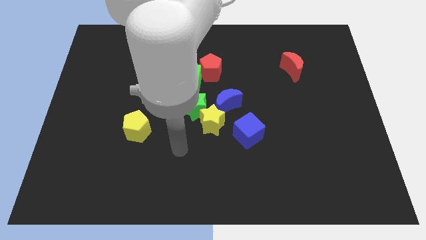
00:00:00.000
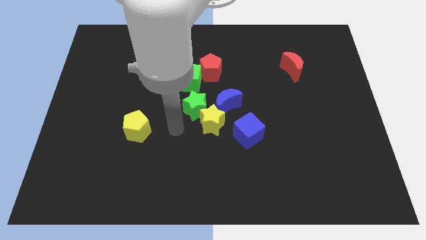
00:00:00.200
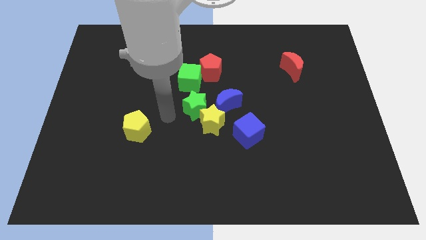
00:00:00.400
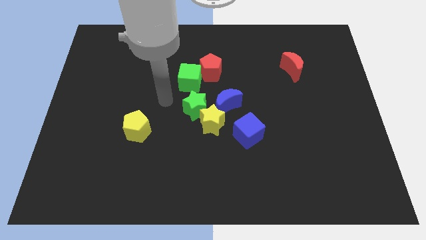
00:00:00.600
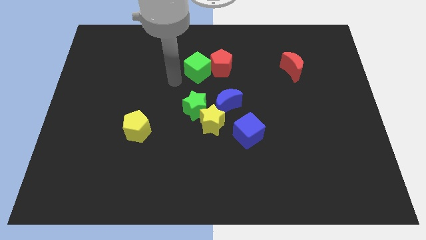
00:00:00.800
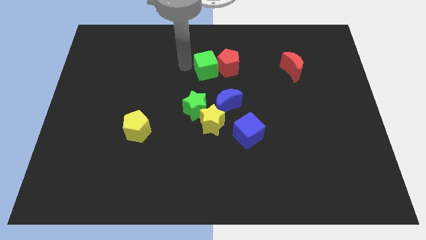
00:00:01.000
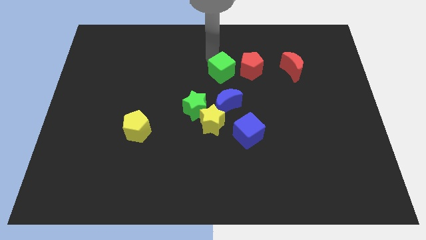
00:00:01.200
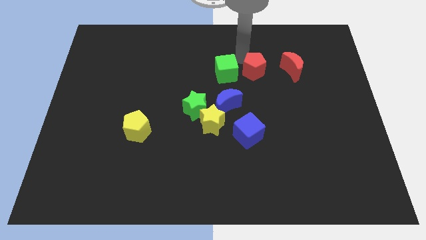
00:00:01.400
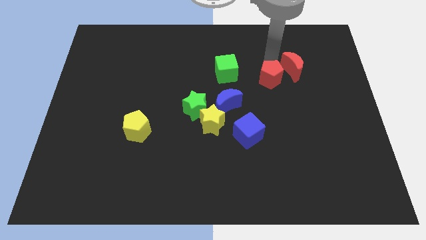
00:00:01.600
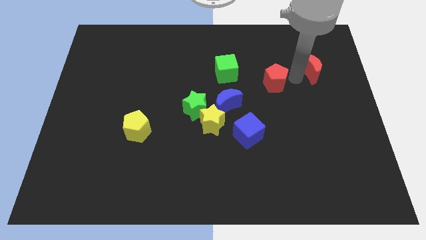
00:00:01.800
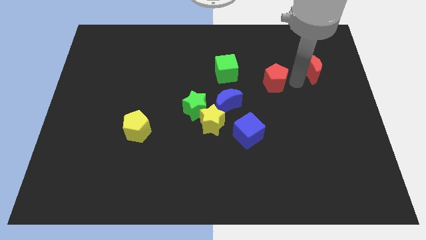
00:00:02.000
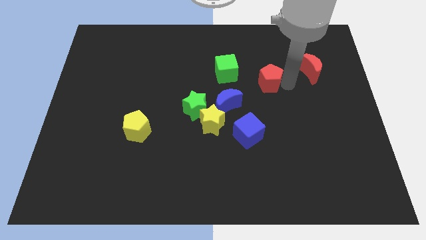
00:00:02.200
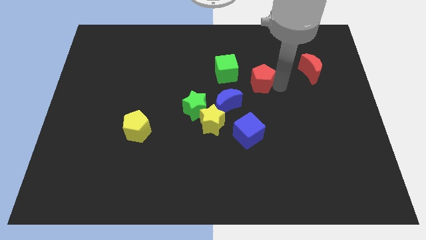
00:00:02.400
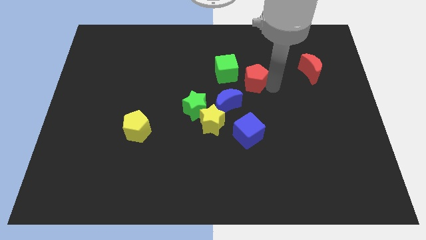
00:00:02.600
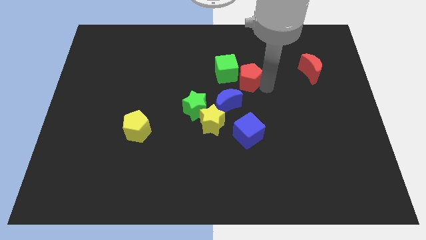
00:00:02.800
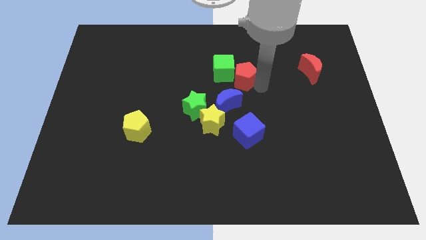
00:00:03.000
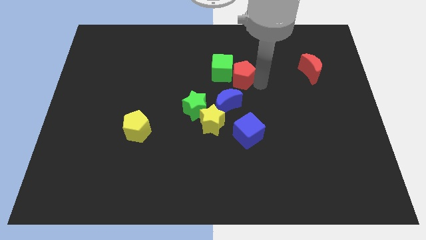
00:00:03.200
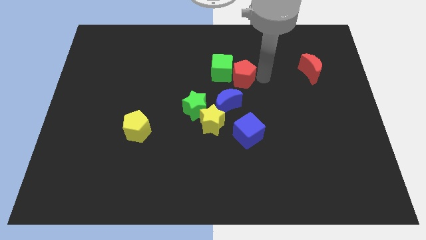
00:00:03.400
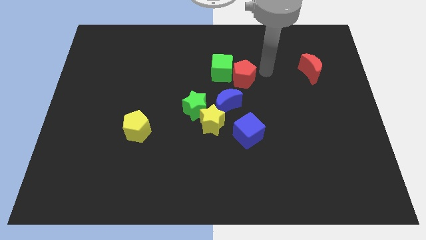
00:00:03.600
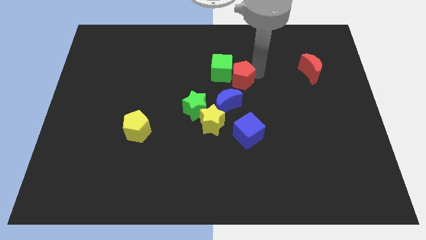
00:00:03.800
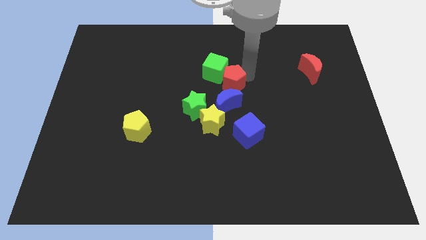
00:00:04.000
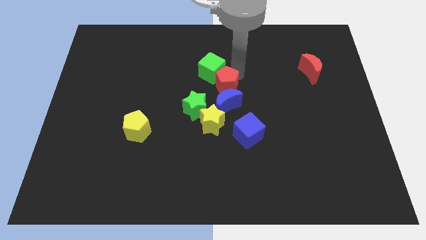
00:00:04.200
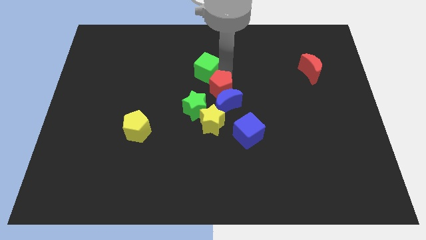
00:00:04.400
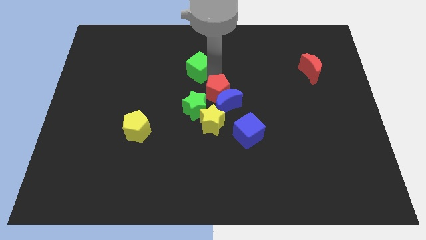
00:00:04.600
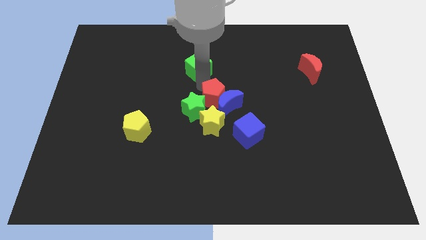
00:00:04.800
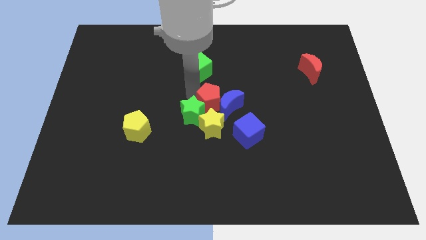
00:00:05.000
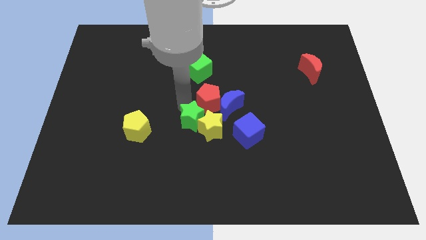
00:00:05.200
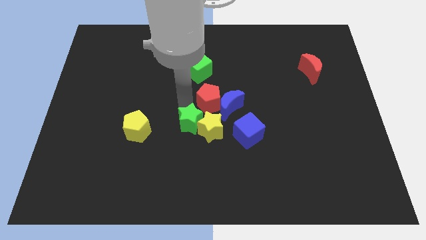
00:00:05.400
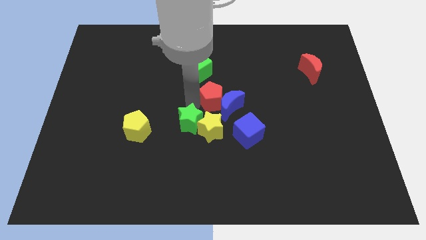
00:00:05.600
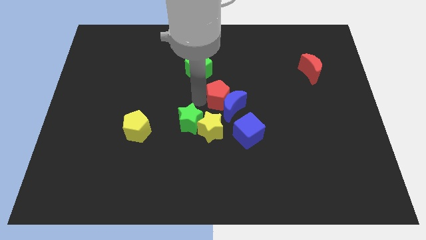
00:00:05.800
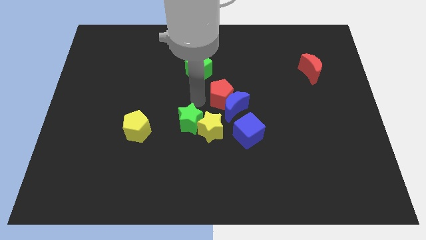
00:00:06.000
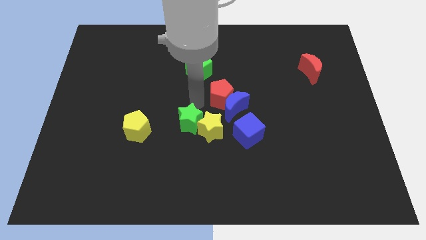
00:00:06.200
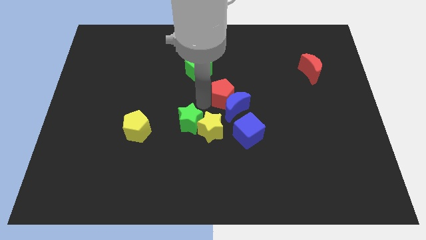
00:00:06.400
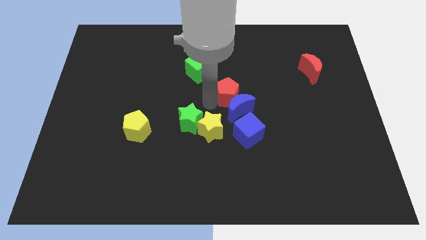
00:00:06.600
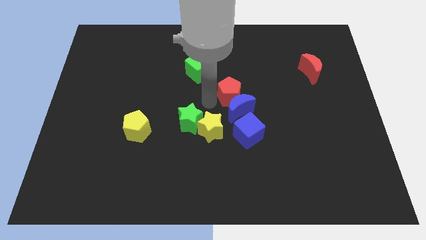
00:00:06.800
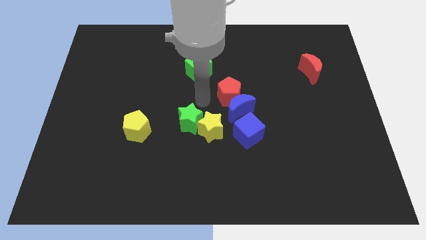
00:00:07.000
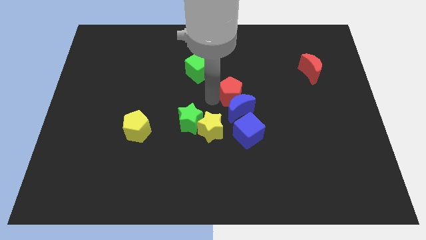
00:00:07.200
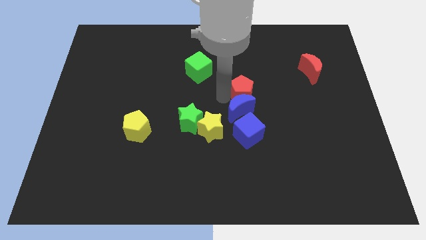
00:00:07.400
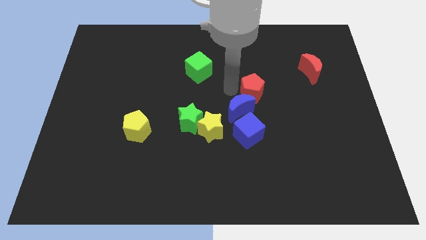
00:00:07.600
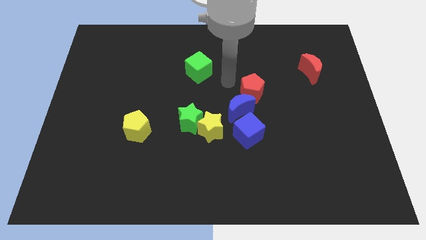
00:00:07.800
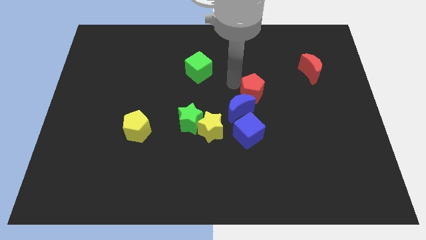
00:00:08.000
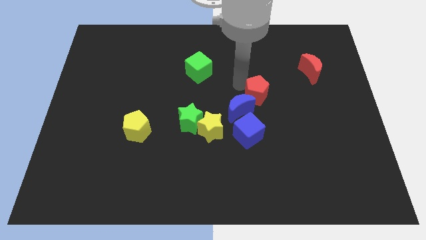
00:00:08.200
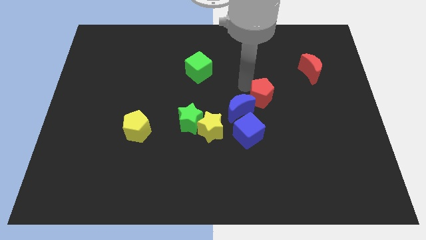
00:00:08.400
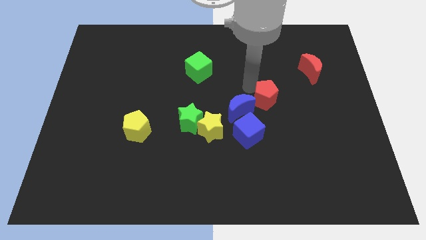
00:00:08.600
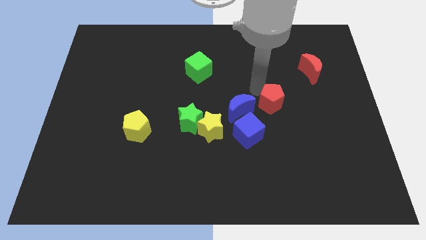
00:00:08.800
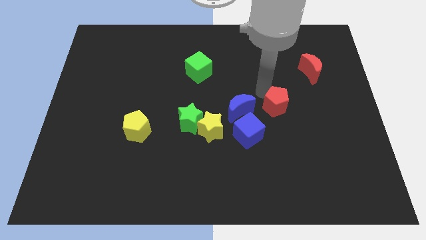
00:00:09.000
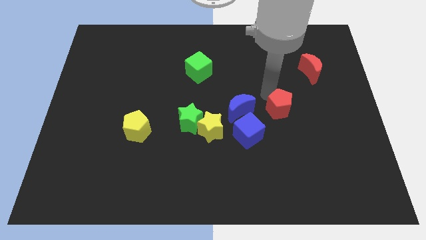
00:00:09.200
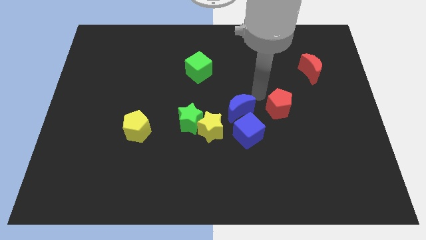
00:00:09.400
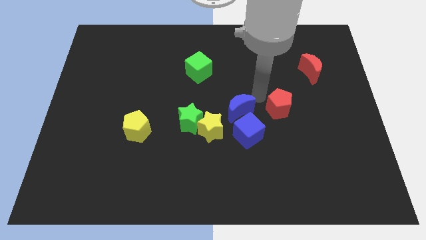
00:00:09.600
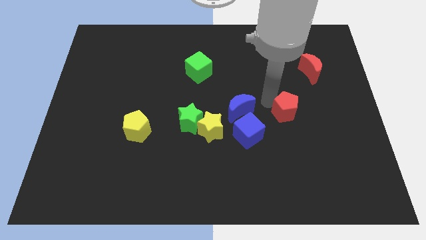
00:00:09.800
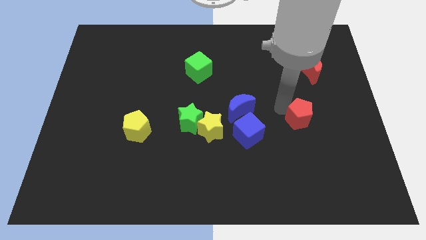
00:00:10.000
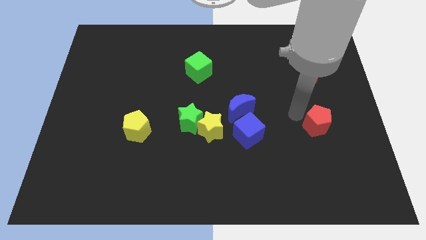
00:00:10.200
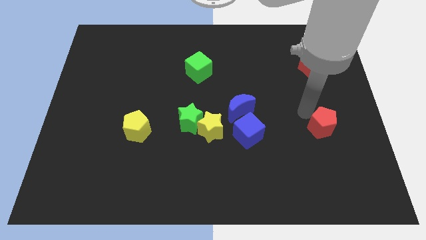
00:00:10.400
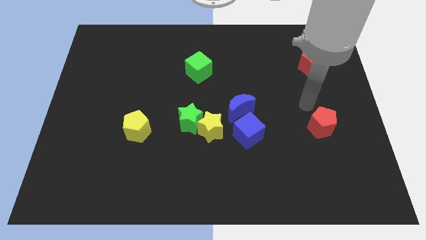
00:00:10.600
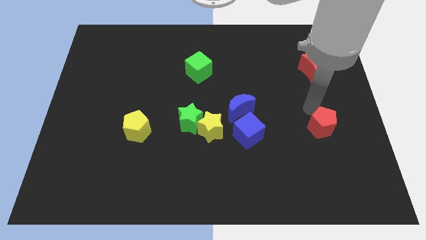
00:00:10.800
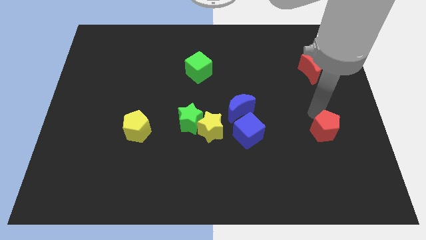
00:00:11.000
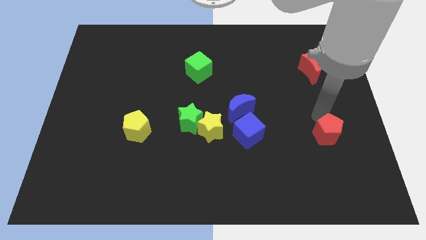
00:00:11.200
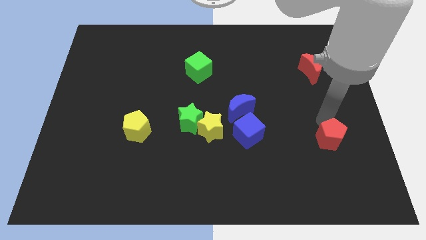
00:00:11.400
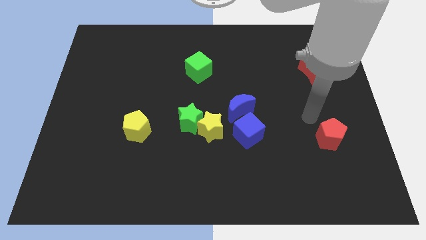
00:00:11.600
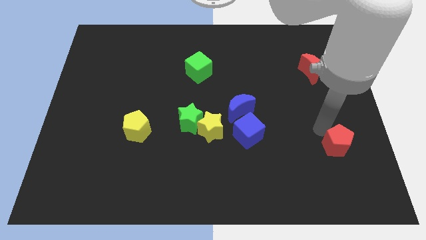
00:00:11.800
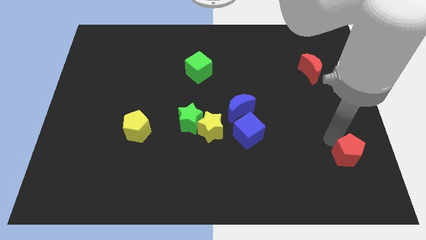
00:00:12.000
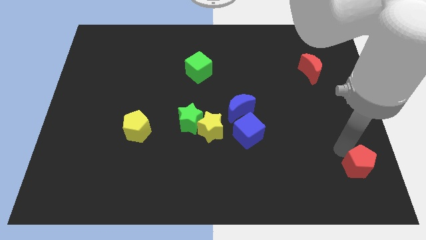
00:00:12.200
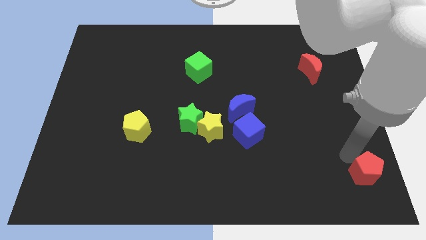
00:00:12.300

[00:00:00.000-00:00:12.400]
push the red pentagon to the lower right corner
